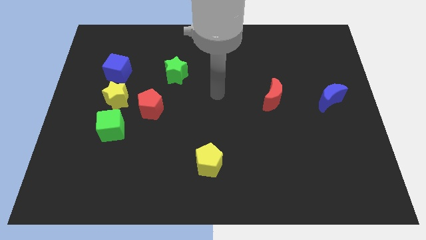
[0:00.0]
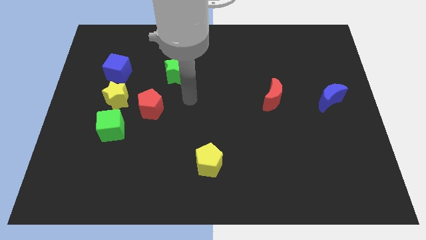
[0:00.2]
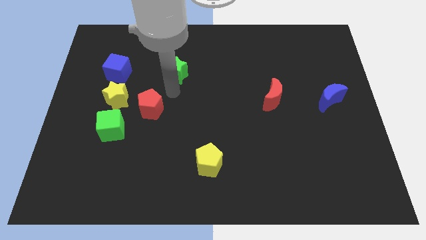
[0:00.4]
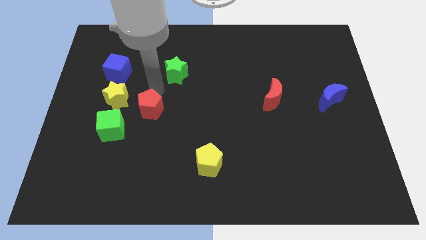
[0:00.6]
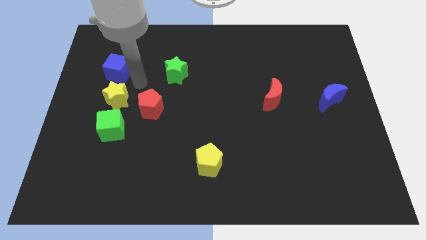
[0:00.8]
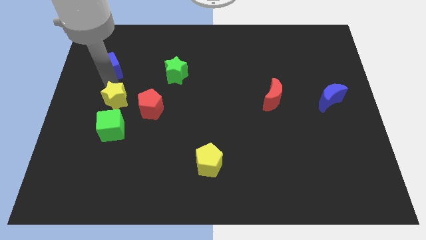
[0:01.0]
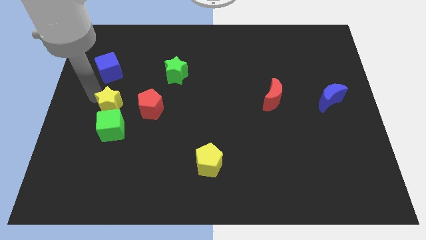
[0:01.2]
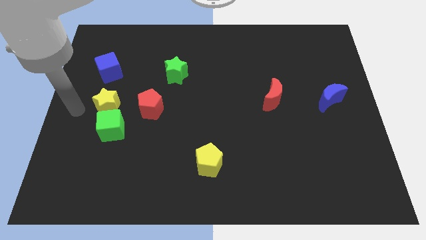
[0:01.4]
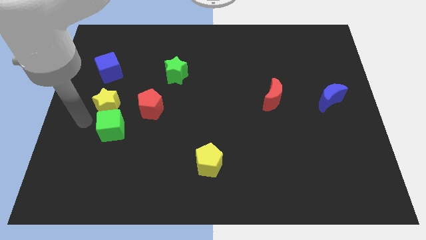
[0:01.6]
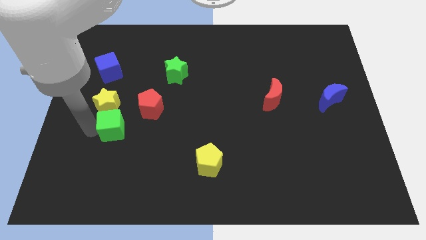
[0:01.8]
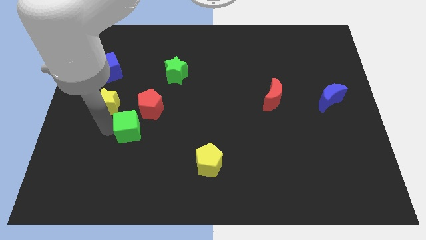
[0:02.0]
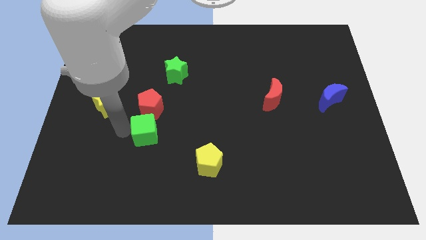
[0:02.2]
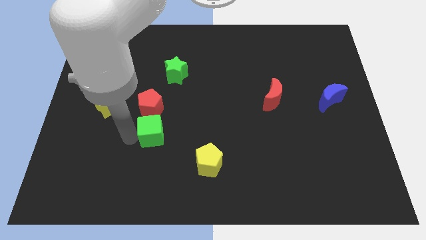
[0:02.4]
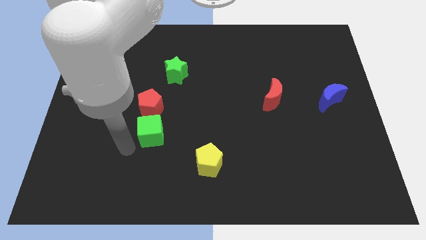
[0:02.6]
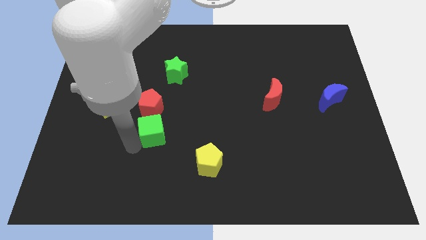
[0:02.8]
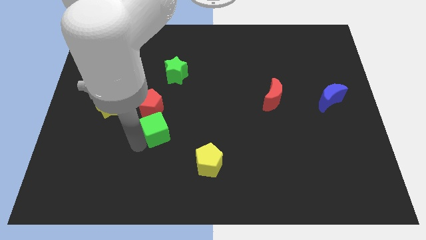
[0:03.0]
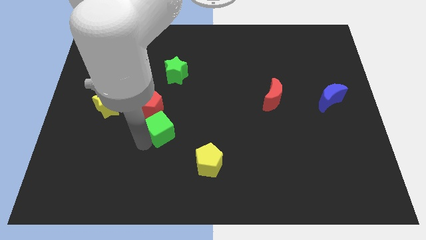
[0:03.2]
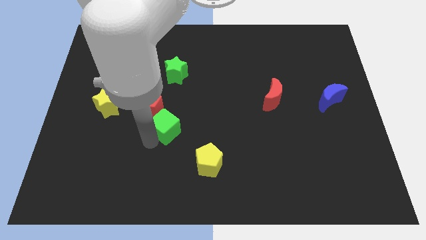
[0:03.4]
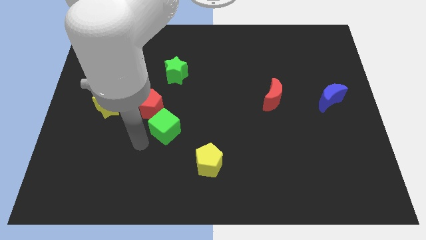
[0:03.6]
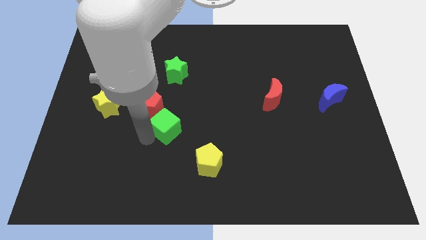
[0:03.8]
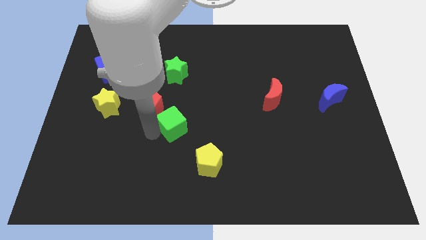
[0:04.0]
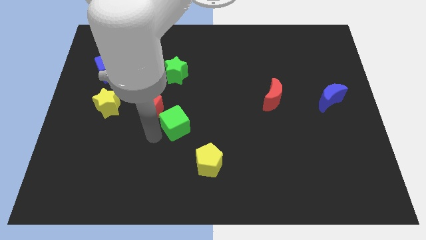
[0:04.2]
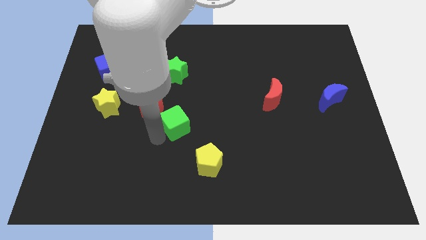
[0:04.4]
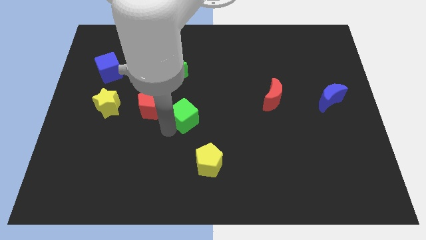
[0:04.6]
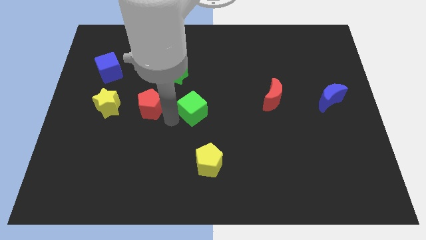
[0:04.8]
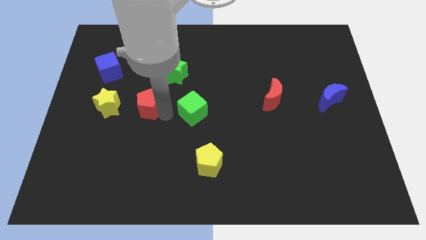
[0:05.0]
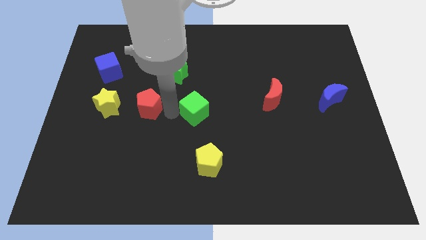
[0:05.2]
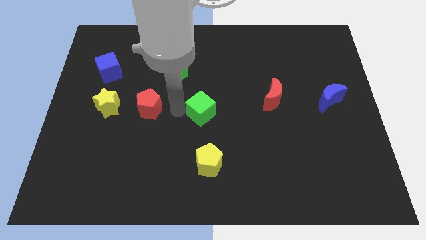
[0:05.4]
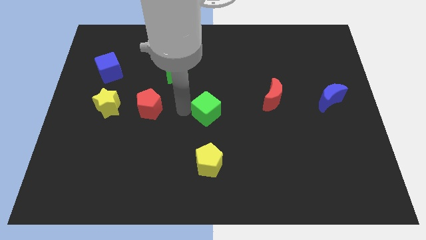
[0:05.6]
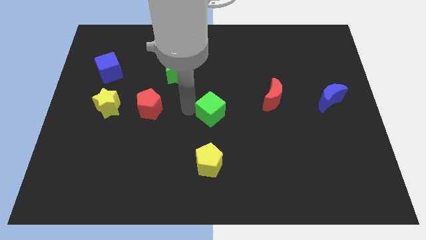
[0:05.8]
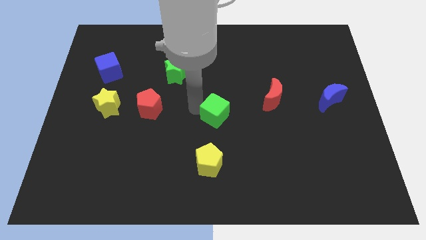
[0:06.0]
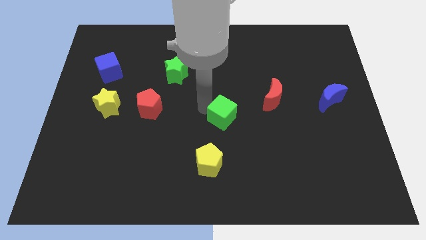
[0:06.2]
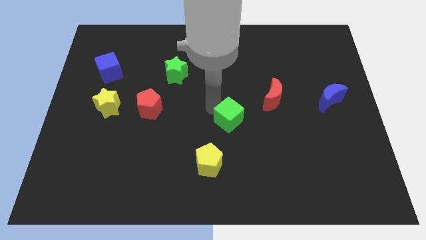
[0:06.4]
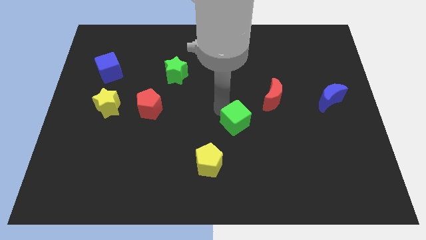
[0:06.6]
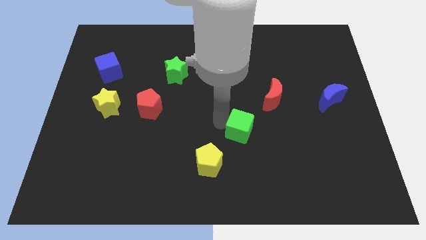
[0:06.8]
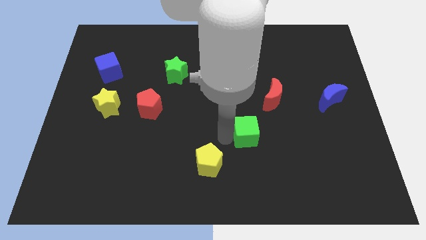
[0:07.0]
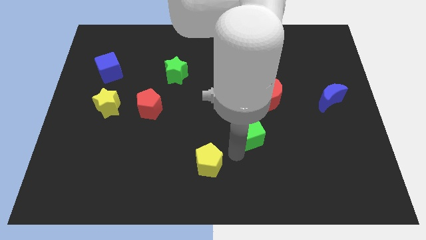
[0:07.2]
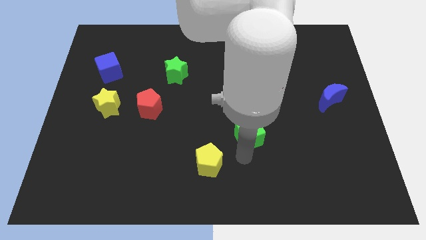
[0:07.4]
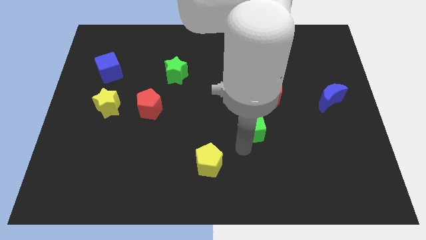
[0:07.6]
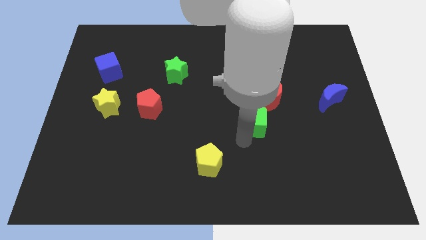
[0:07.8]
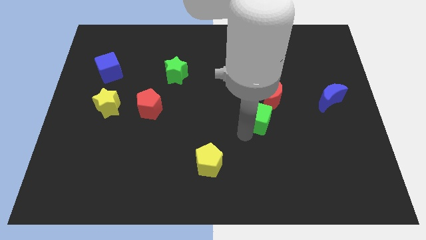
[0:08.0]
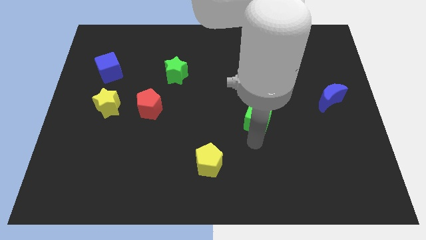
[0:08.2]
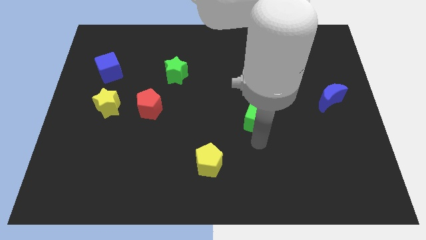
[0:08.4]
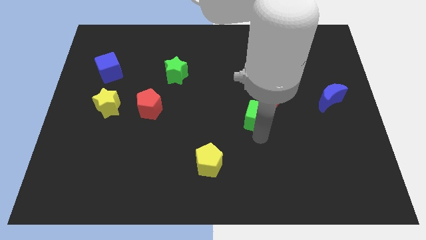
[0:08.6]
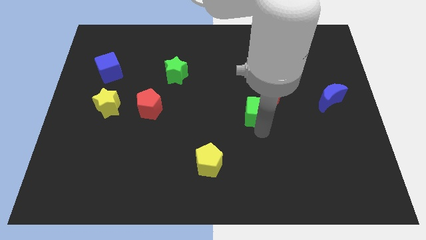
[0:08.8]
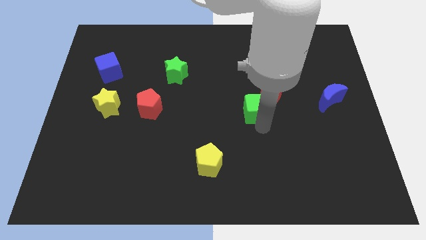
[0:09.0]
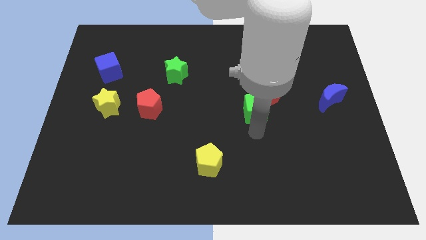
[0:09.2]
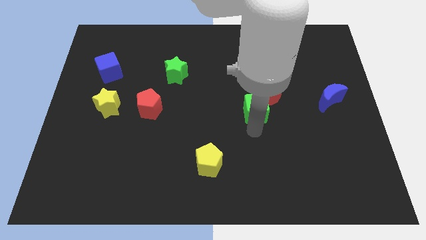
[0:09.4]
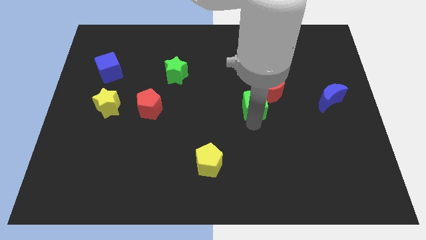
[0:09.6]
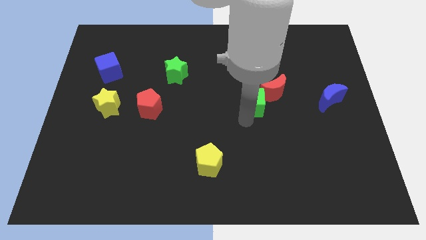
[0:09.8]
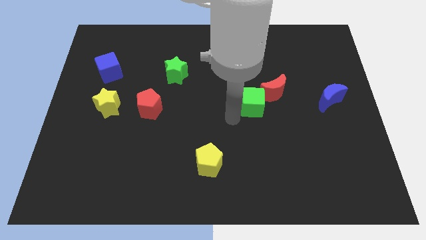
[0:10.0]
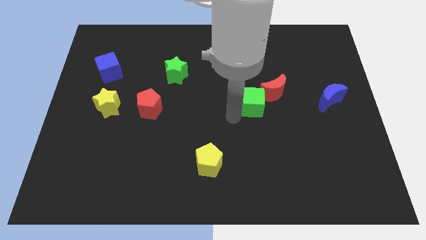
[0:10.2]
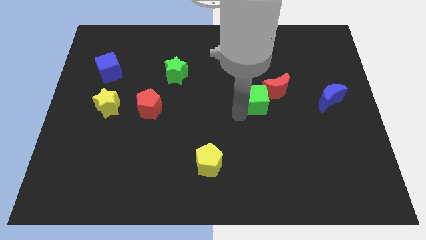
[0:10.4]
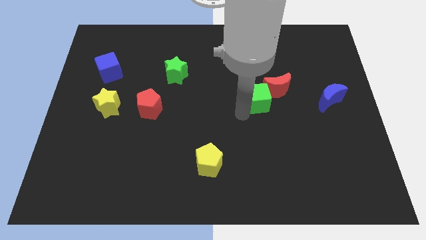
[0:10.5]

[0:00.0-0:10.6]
put the green cube close to the red moon

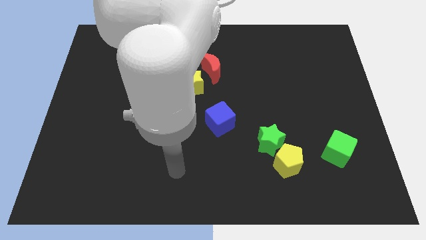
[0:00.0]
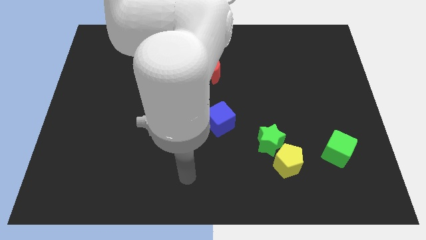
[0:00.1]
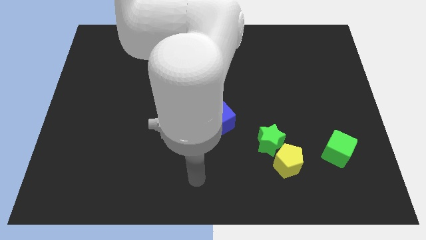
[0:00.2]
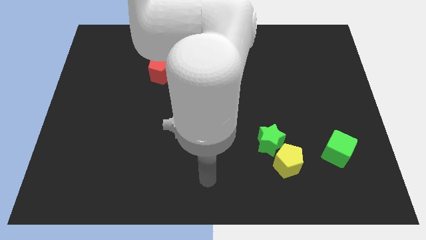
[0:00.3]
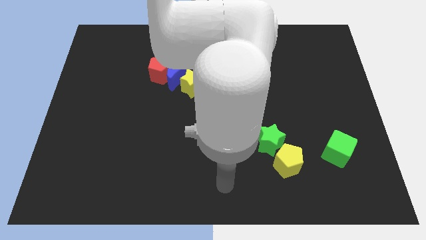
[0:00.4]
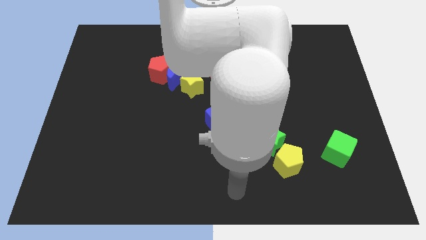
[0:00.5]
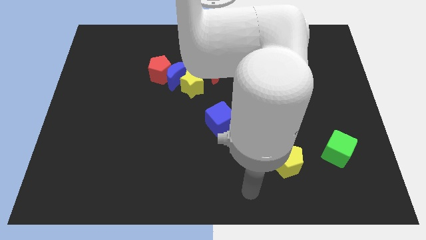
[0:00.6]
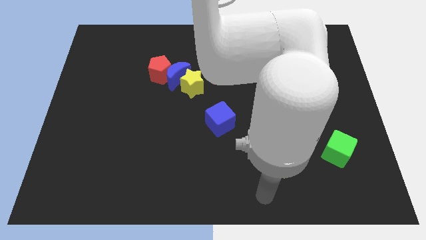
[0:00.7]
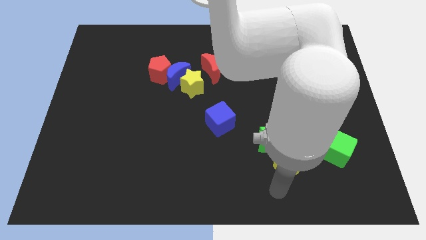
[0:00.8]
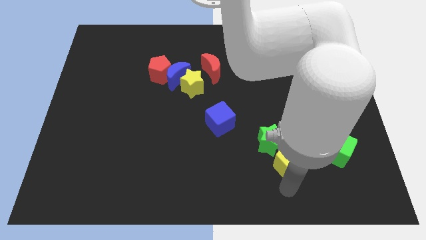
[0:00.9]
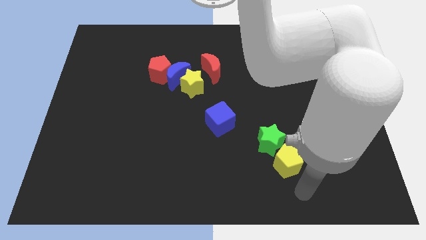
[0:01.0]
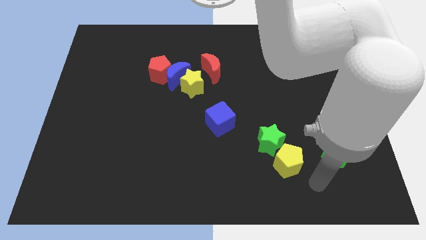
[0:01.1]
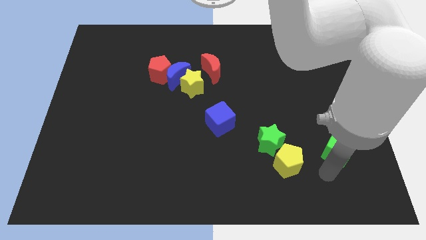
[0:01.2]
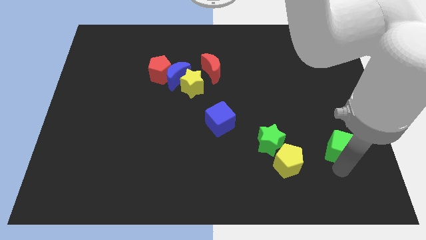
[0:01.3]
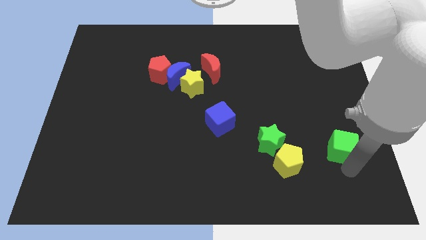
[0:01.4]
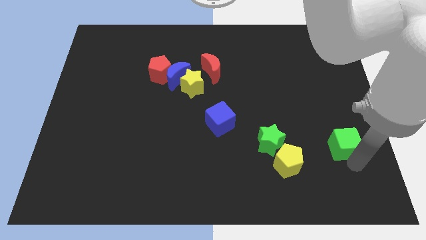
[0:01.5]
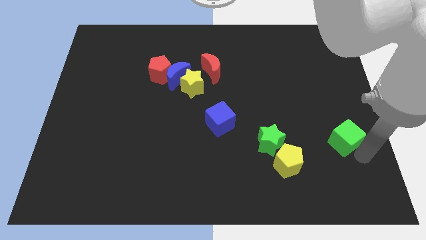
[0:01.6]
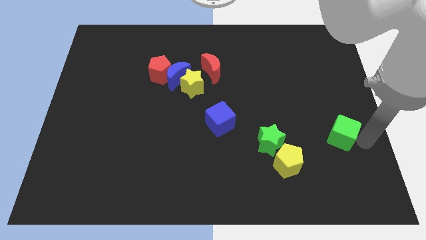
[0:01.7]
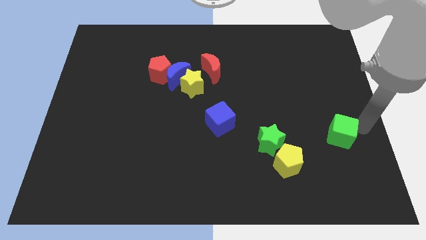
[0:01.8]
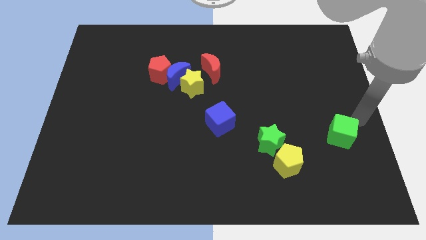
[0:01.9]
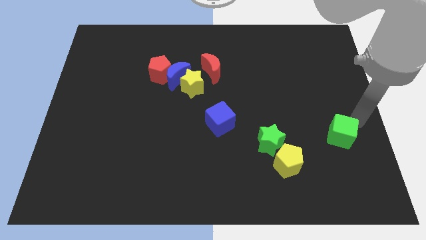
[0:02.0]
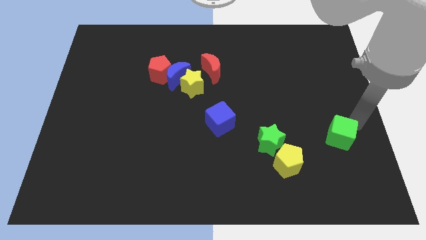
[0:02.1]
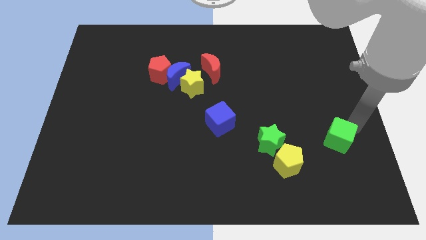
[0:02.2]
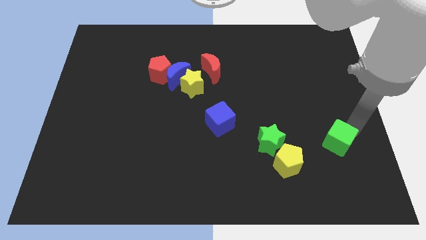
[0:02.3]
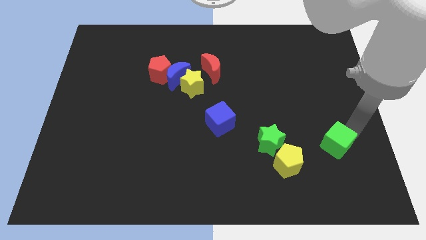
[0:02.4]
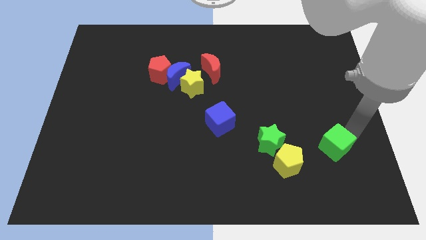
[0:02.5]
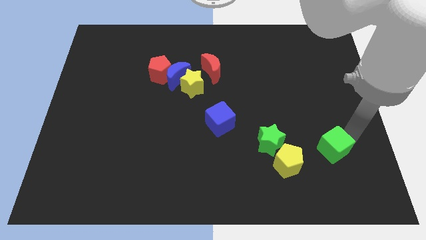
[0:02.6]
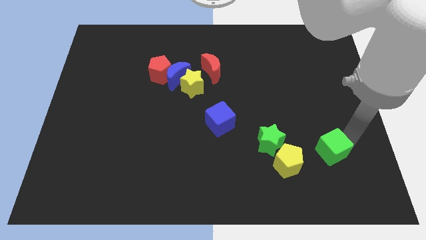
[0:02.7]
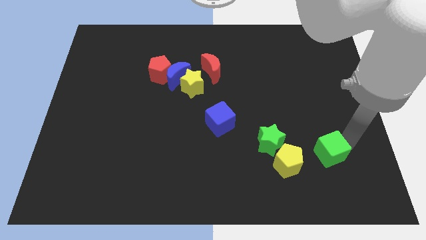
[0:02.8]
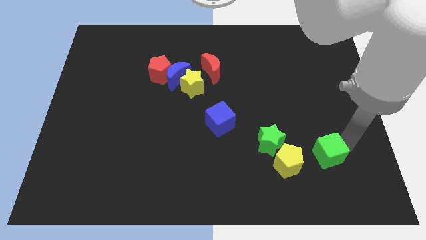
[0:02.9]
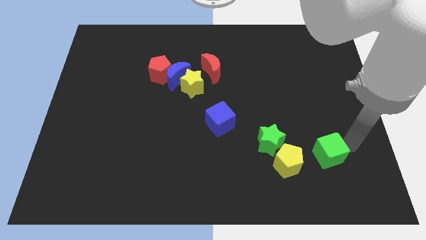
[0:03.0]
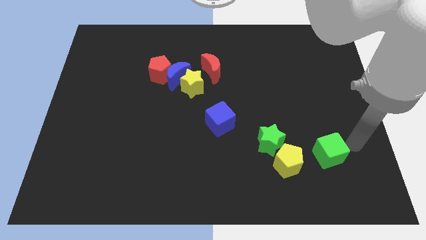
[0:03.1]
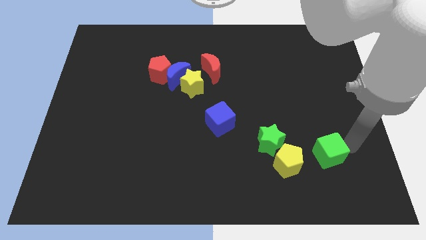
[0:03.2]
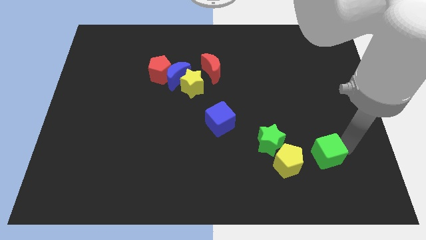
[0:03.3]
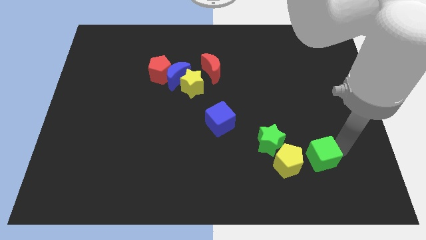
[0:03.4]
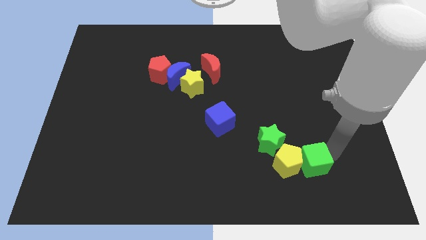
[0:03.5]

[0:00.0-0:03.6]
slide the green cube to the yellow pentagon
